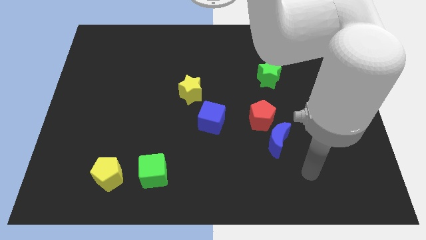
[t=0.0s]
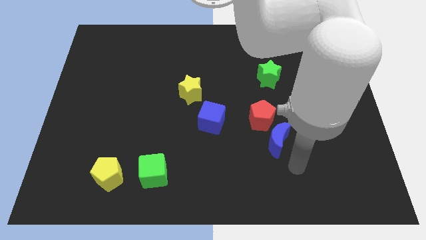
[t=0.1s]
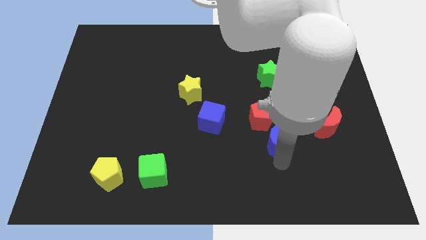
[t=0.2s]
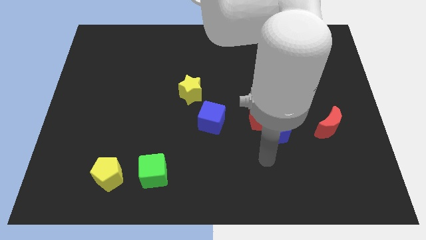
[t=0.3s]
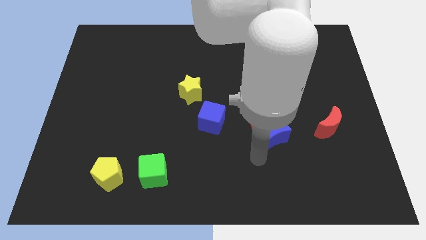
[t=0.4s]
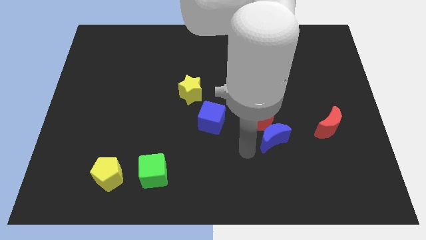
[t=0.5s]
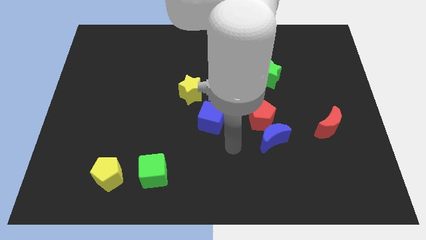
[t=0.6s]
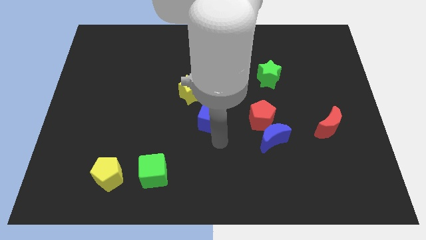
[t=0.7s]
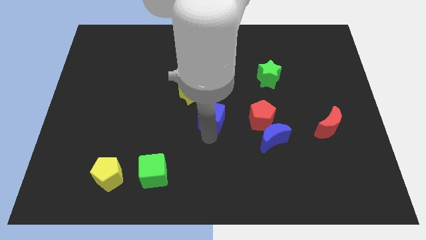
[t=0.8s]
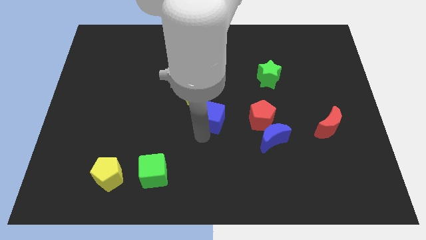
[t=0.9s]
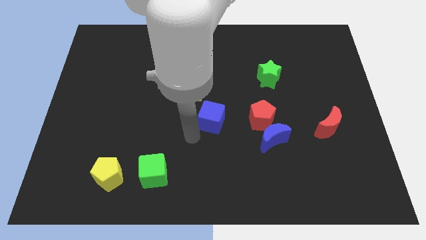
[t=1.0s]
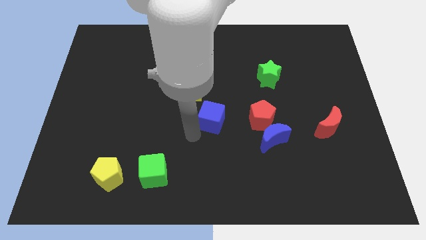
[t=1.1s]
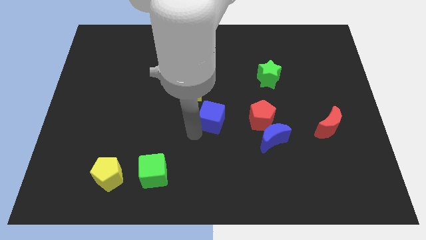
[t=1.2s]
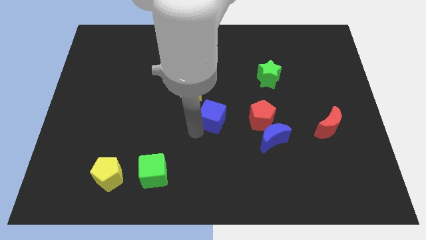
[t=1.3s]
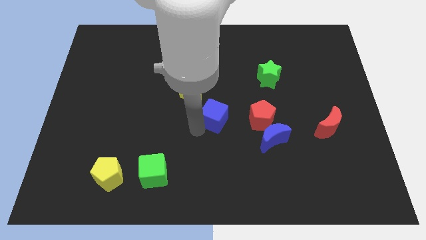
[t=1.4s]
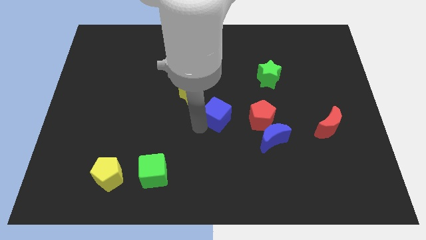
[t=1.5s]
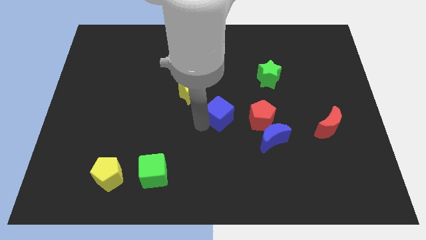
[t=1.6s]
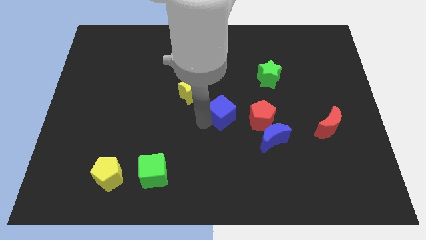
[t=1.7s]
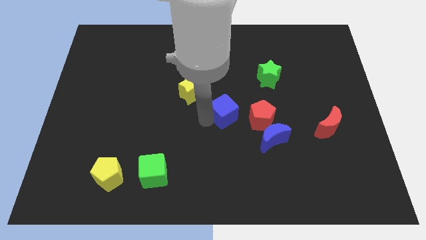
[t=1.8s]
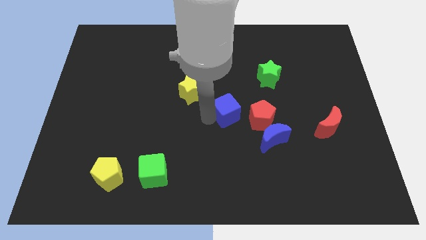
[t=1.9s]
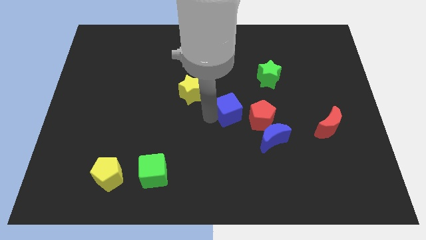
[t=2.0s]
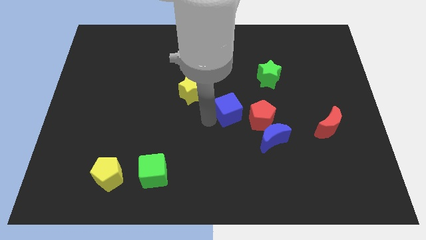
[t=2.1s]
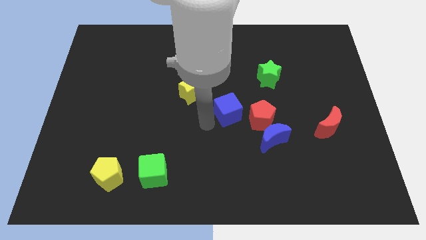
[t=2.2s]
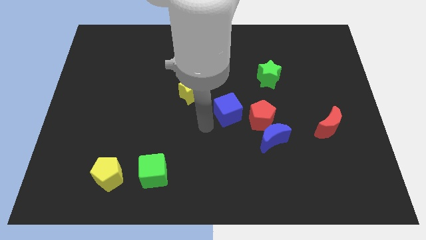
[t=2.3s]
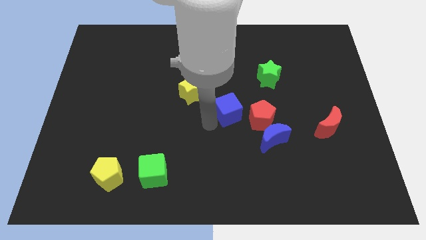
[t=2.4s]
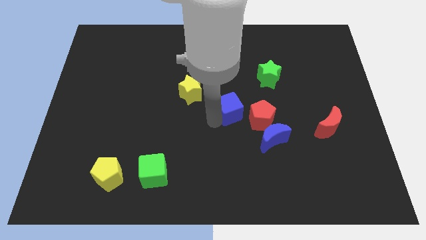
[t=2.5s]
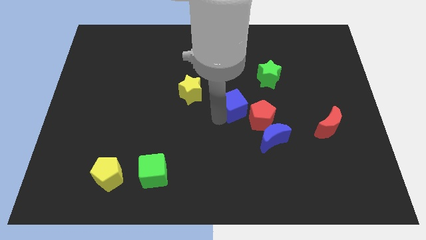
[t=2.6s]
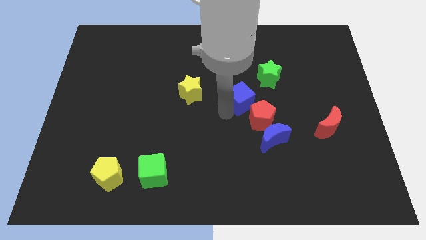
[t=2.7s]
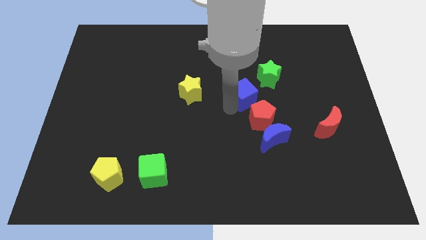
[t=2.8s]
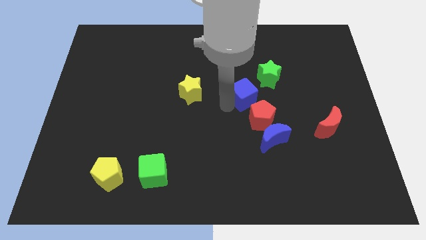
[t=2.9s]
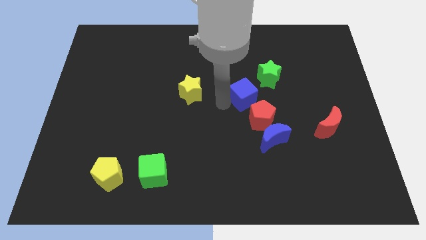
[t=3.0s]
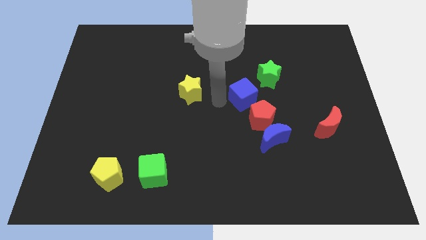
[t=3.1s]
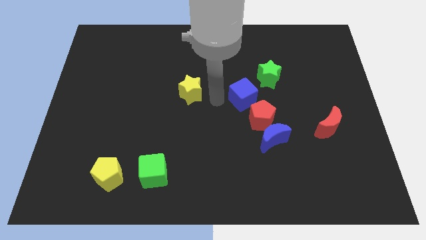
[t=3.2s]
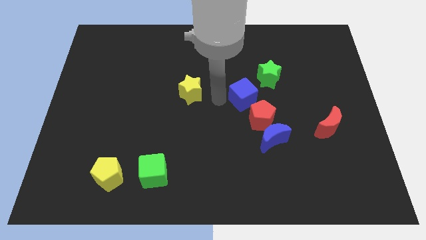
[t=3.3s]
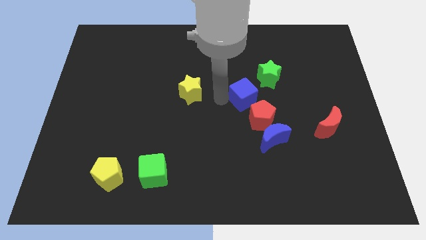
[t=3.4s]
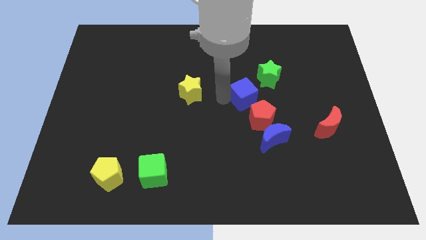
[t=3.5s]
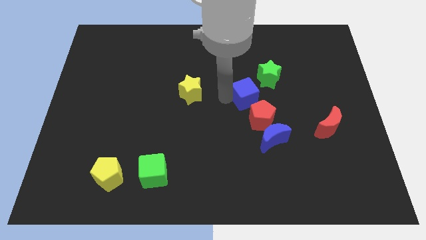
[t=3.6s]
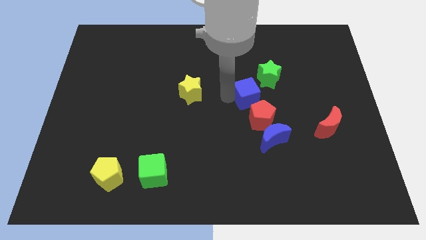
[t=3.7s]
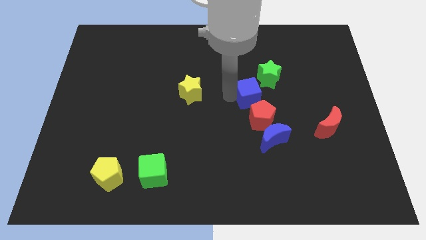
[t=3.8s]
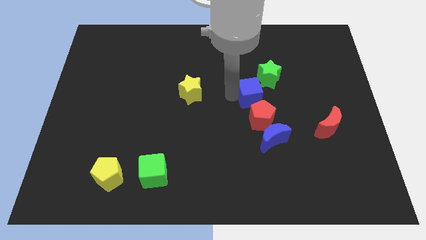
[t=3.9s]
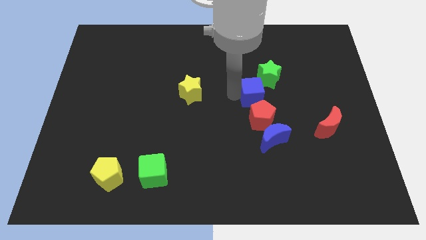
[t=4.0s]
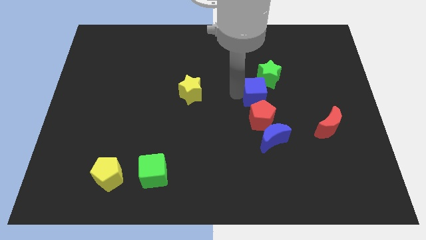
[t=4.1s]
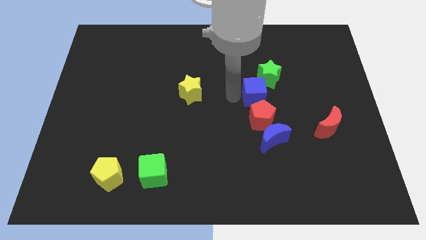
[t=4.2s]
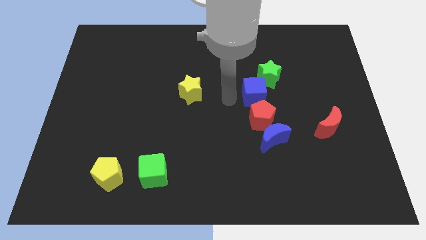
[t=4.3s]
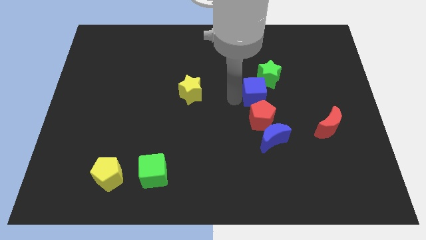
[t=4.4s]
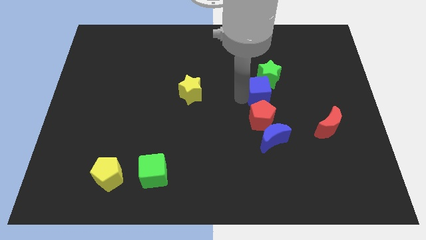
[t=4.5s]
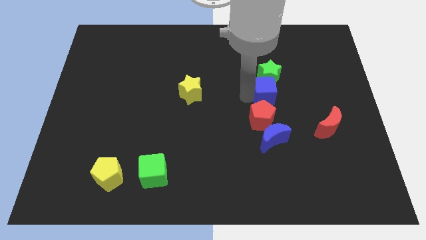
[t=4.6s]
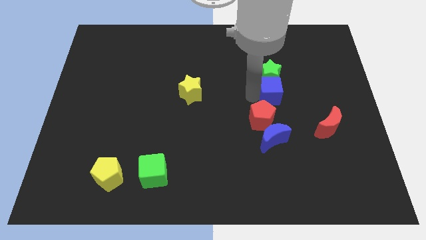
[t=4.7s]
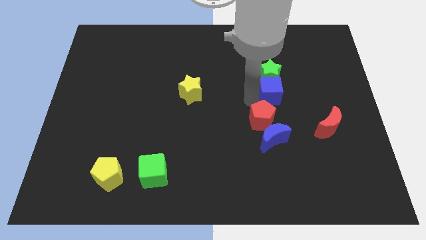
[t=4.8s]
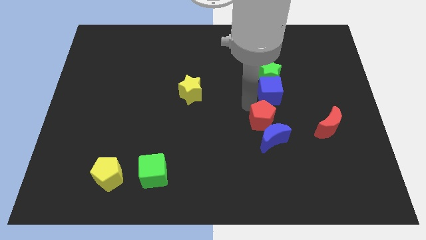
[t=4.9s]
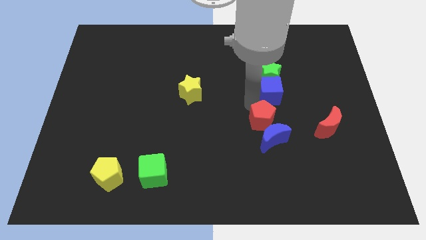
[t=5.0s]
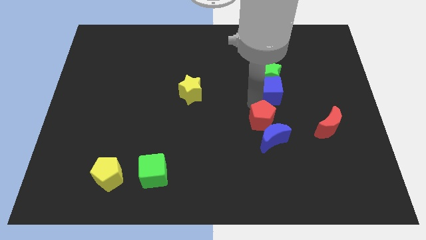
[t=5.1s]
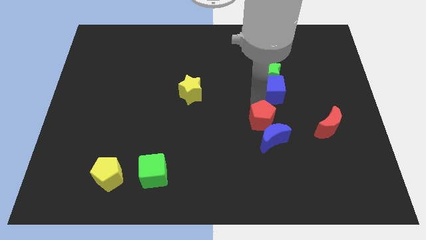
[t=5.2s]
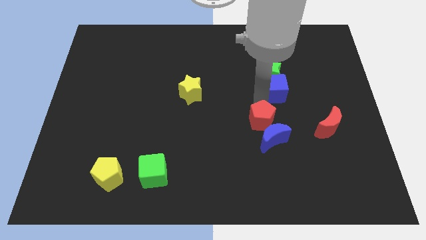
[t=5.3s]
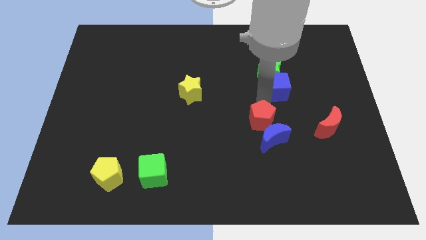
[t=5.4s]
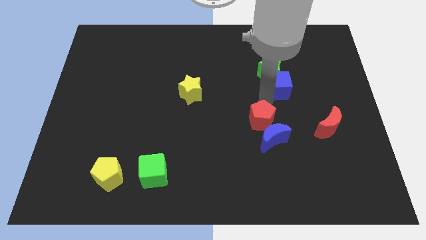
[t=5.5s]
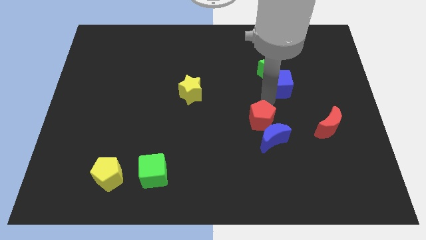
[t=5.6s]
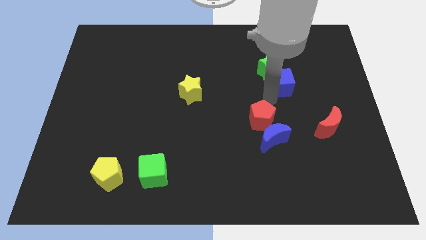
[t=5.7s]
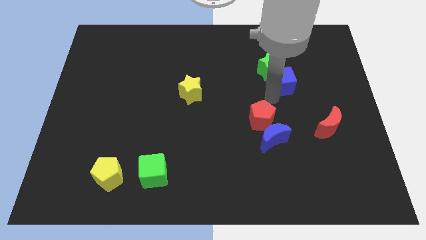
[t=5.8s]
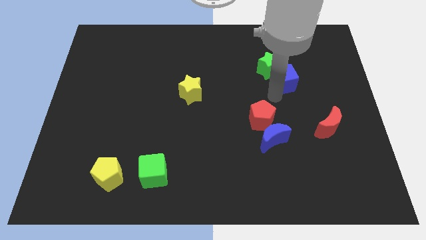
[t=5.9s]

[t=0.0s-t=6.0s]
put the blue cube to the right of the green star

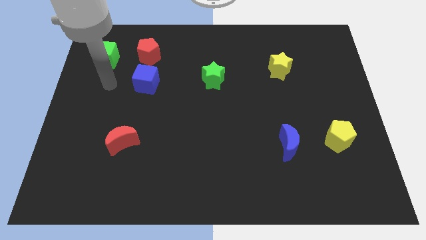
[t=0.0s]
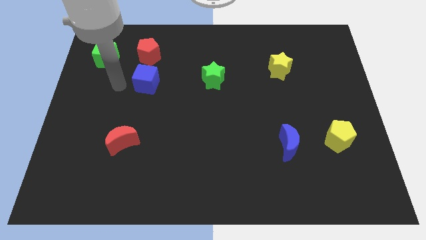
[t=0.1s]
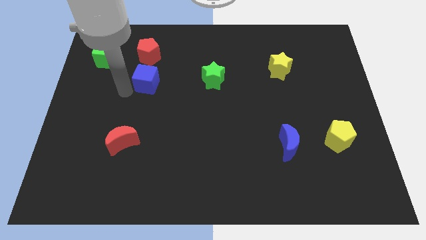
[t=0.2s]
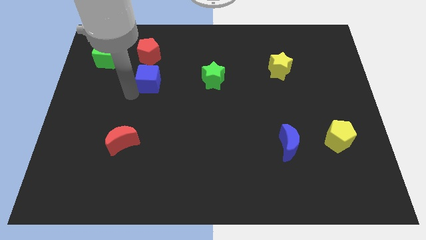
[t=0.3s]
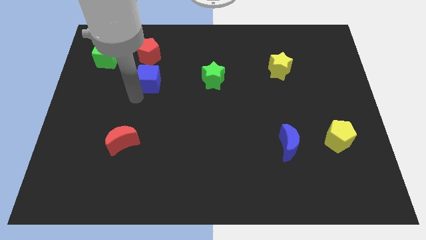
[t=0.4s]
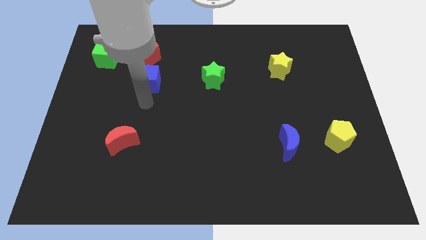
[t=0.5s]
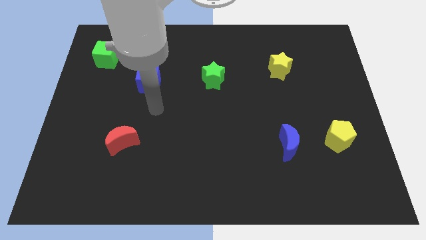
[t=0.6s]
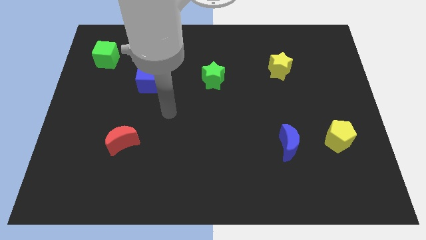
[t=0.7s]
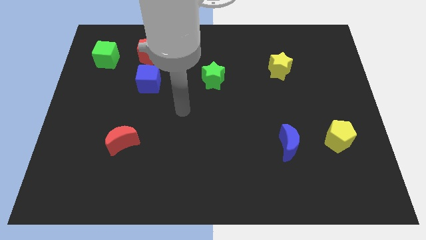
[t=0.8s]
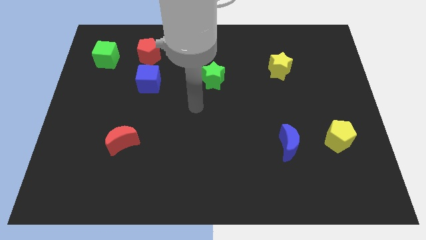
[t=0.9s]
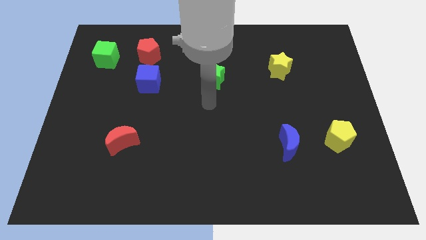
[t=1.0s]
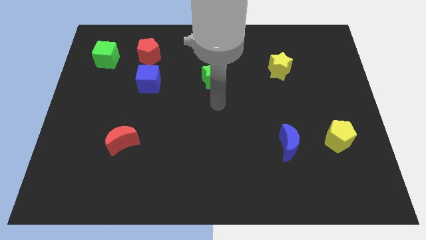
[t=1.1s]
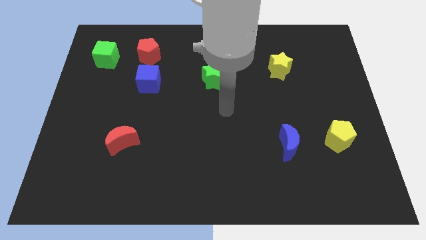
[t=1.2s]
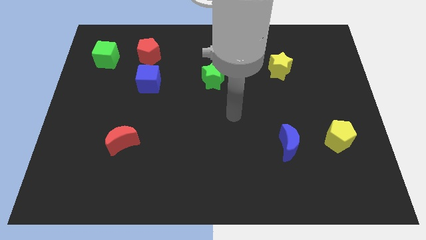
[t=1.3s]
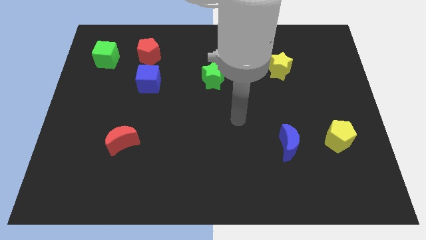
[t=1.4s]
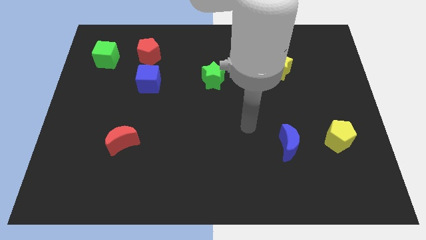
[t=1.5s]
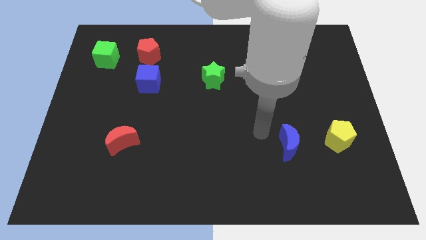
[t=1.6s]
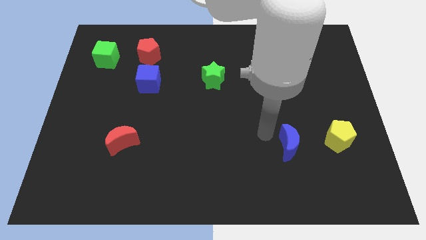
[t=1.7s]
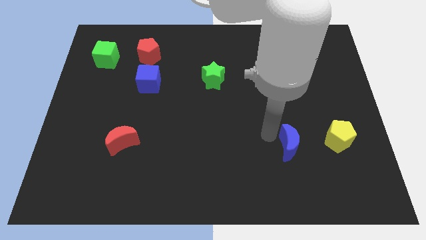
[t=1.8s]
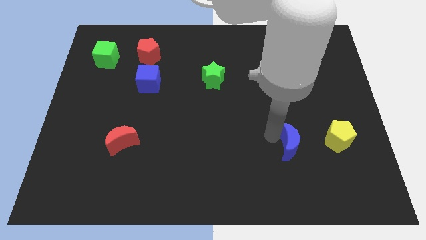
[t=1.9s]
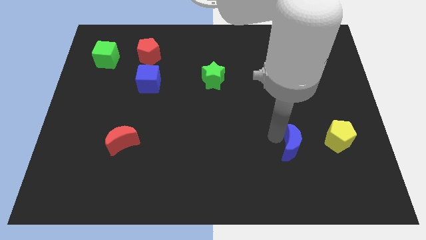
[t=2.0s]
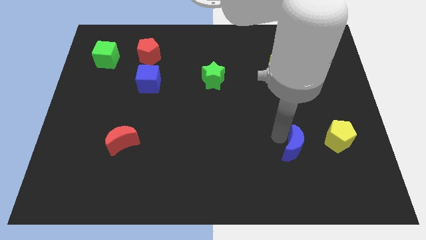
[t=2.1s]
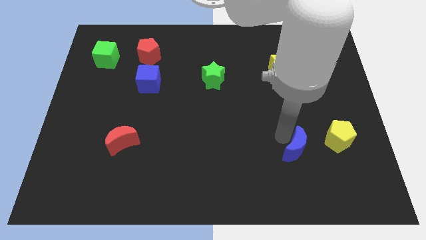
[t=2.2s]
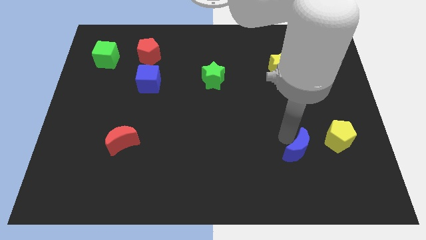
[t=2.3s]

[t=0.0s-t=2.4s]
put the blue moon to the bottom left side of the yellow pentagon
